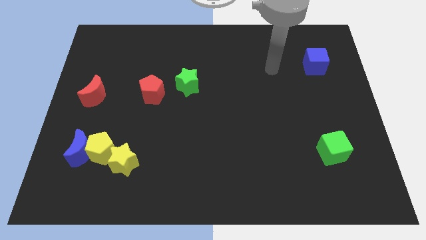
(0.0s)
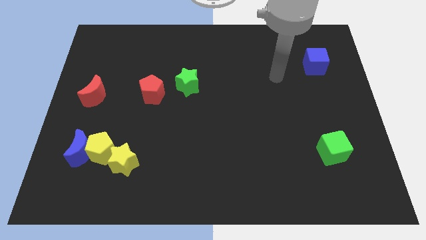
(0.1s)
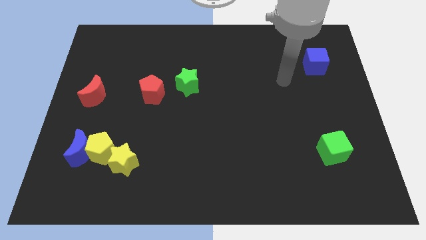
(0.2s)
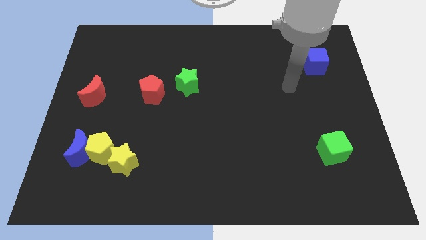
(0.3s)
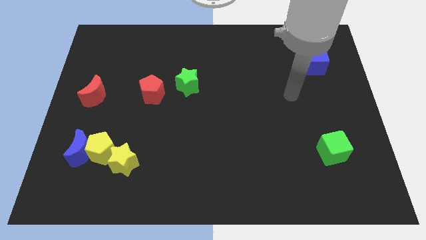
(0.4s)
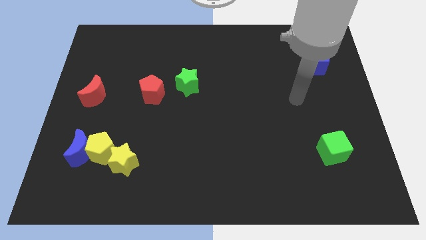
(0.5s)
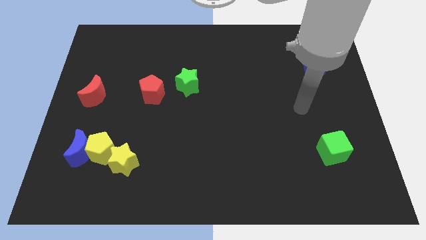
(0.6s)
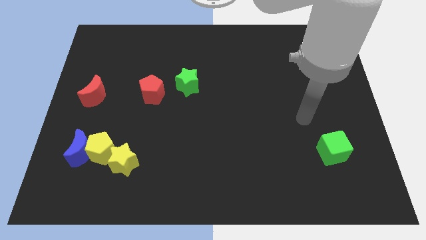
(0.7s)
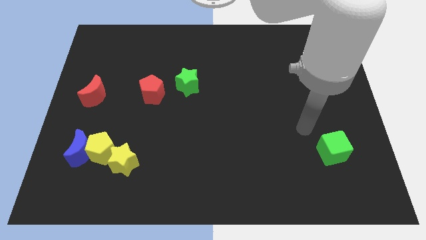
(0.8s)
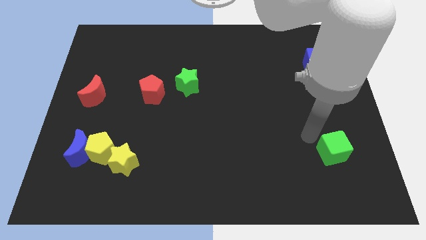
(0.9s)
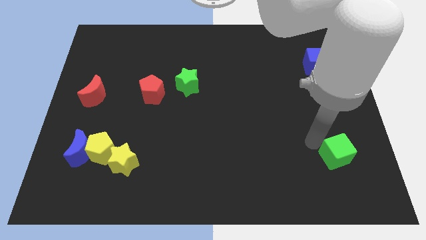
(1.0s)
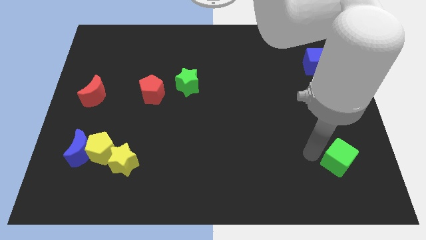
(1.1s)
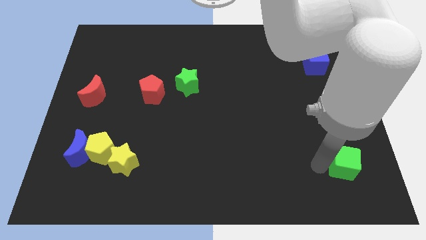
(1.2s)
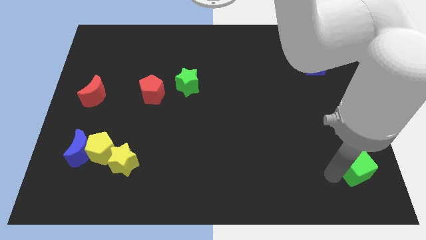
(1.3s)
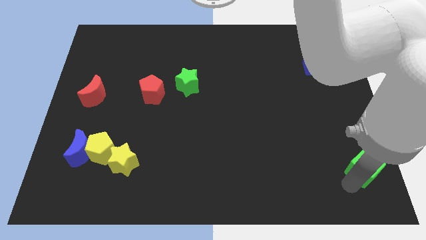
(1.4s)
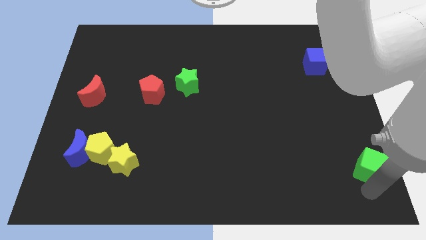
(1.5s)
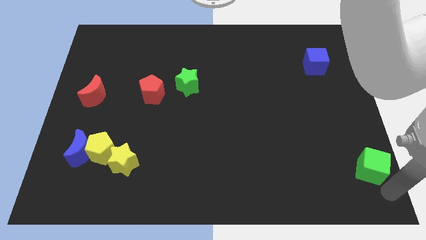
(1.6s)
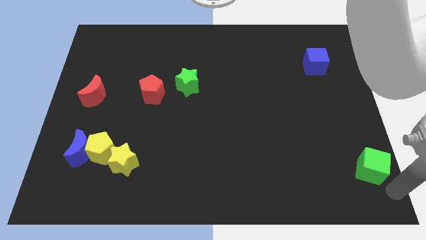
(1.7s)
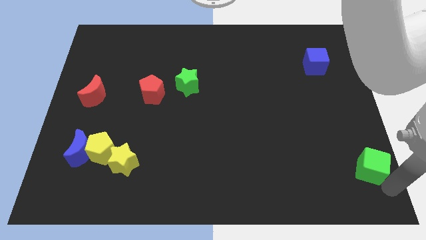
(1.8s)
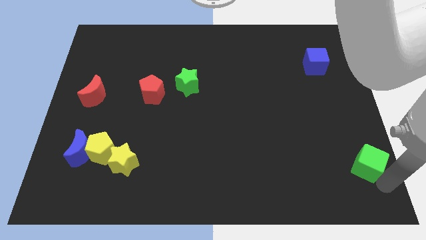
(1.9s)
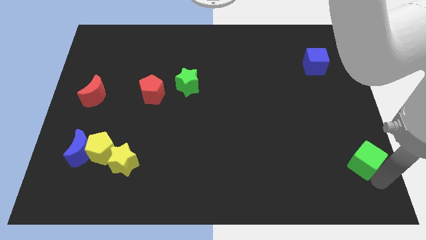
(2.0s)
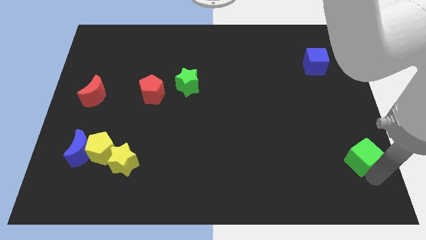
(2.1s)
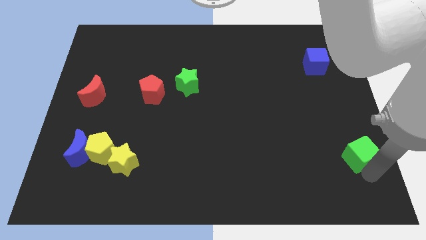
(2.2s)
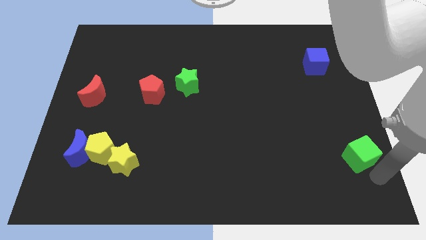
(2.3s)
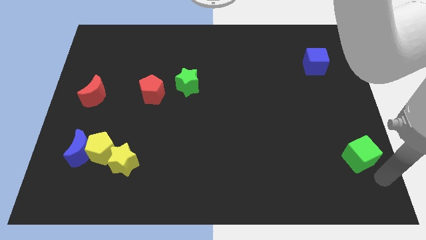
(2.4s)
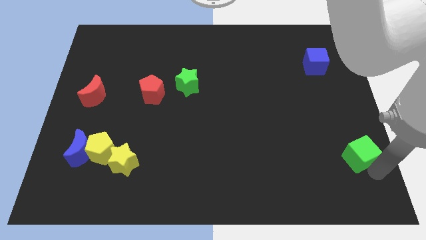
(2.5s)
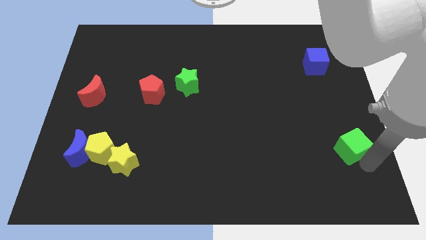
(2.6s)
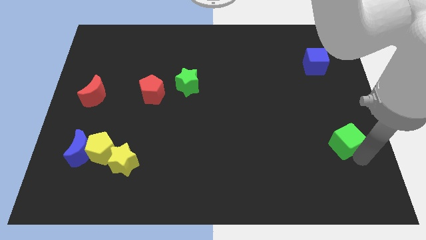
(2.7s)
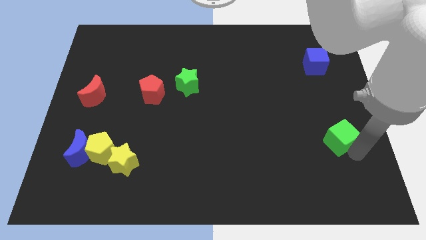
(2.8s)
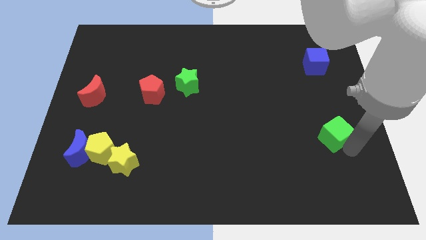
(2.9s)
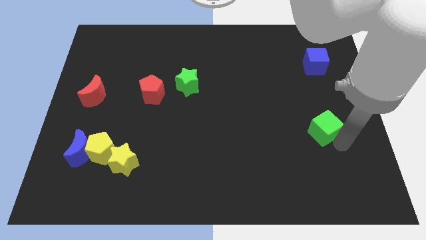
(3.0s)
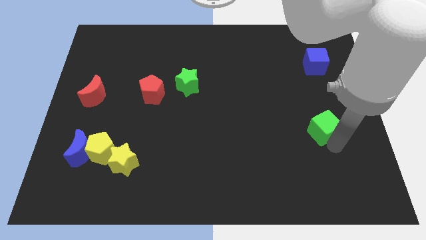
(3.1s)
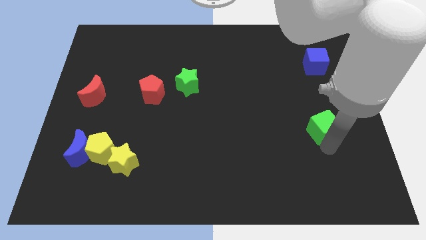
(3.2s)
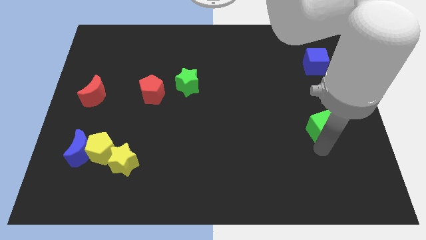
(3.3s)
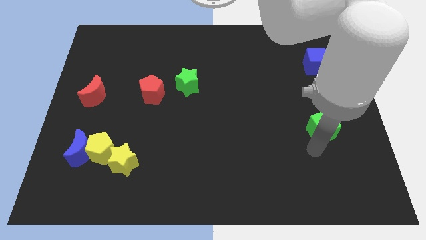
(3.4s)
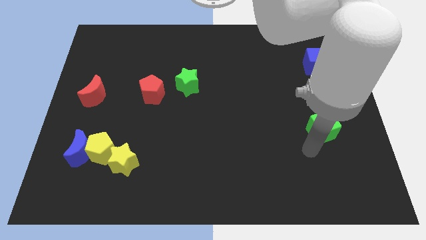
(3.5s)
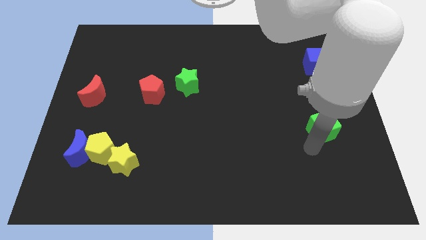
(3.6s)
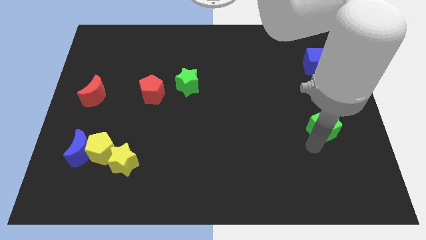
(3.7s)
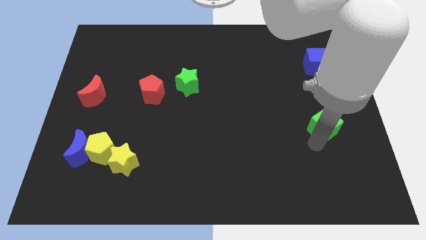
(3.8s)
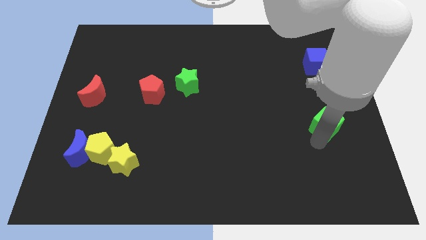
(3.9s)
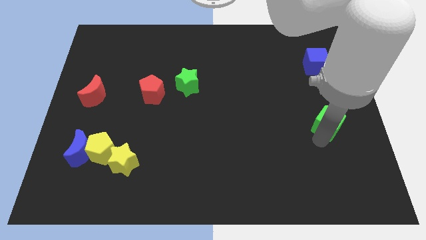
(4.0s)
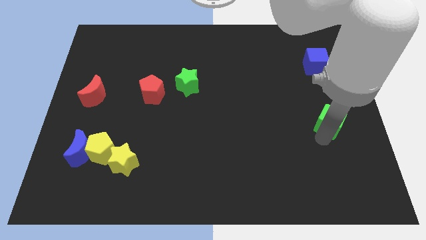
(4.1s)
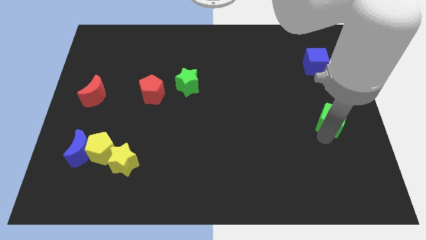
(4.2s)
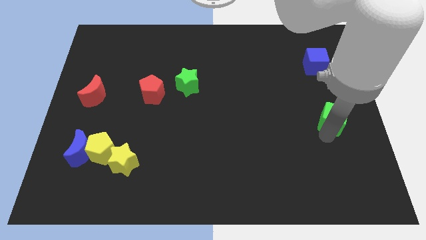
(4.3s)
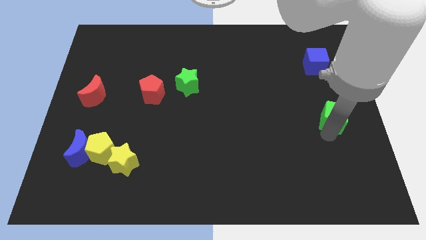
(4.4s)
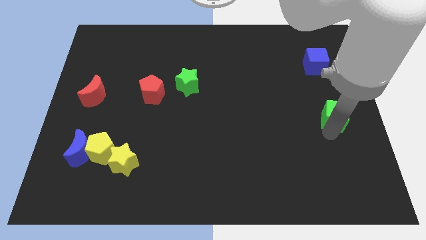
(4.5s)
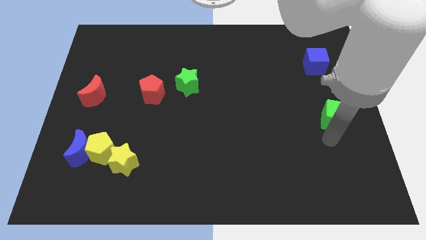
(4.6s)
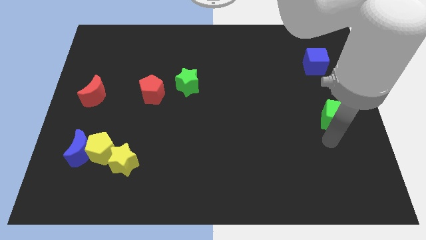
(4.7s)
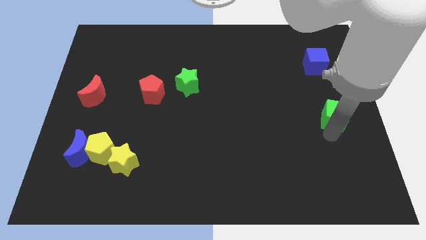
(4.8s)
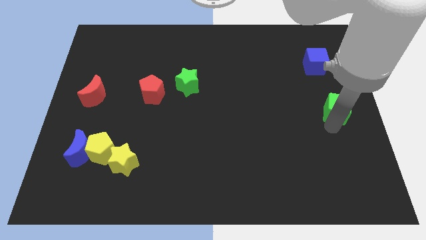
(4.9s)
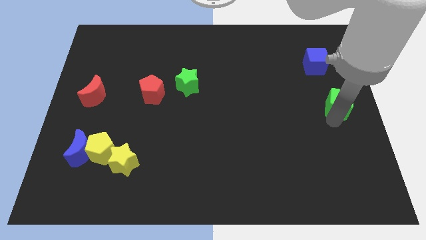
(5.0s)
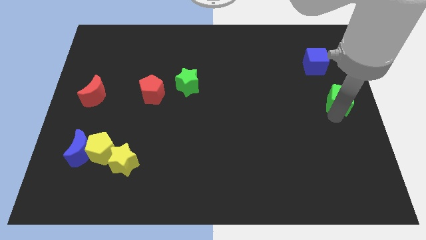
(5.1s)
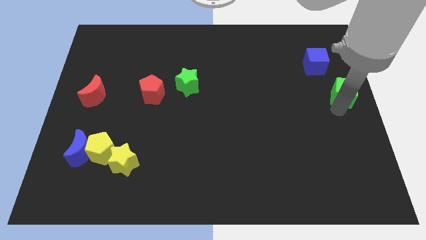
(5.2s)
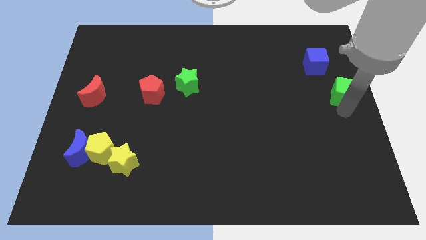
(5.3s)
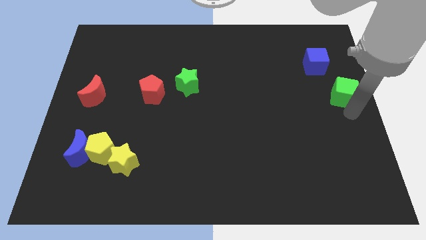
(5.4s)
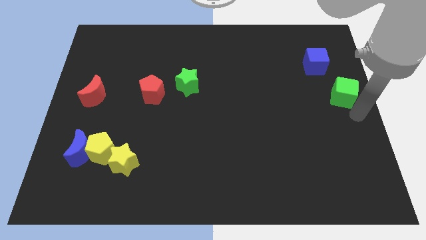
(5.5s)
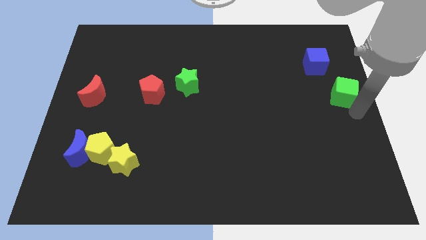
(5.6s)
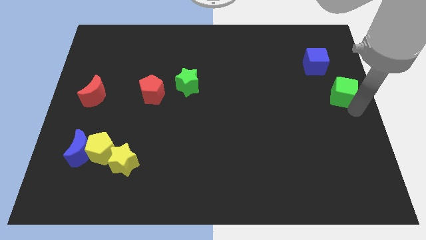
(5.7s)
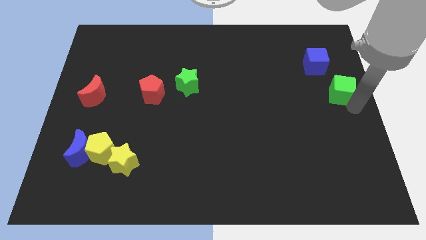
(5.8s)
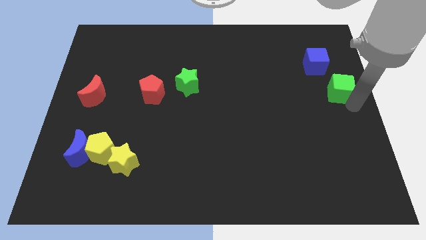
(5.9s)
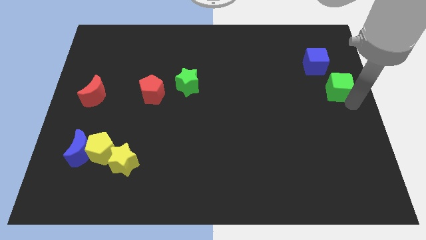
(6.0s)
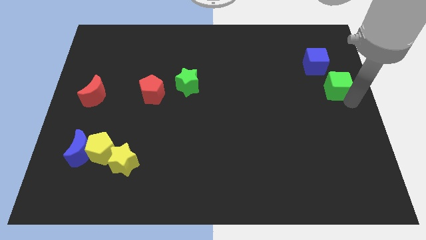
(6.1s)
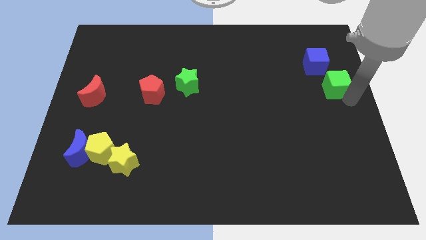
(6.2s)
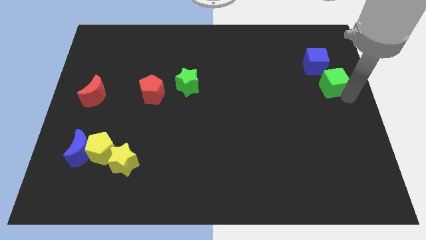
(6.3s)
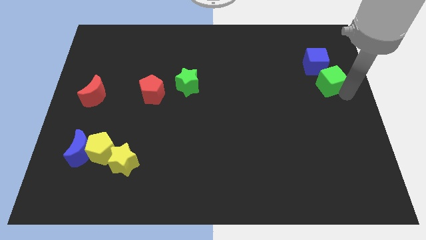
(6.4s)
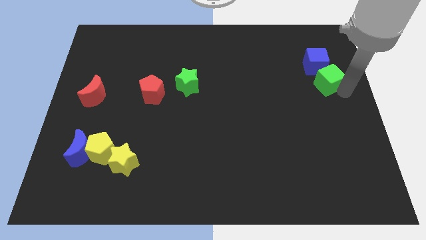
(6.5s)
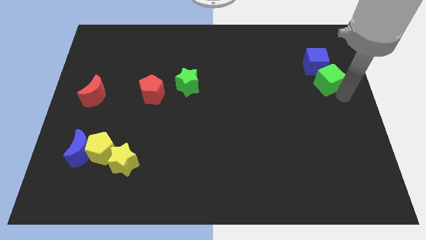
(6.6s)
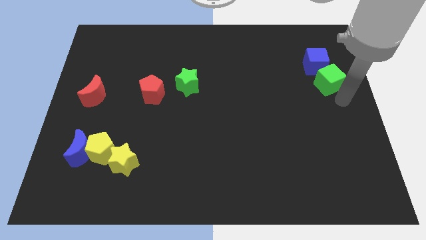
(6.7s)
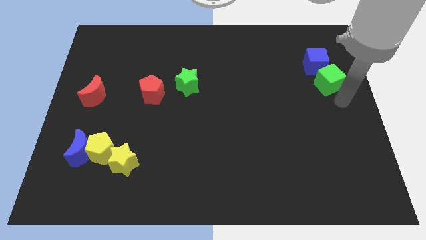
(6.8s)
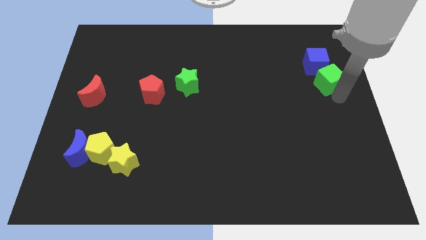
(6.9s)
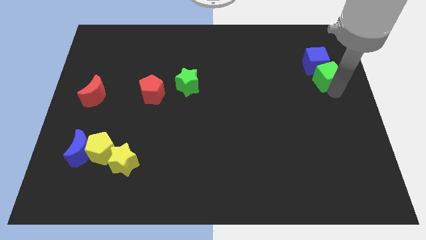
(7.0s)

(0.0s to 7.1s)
move the green cube towards the blue cube
